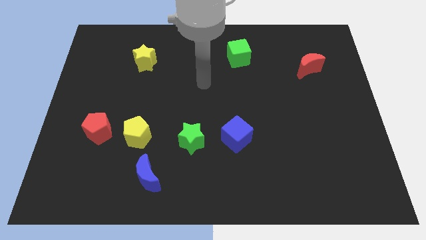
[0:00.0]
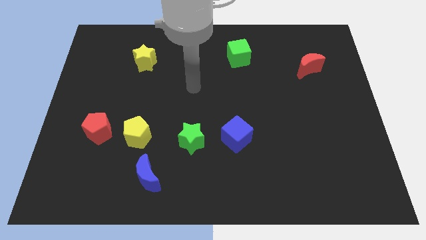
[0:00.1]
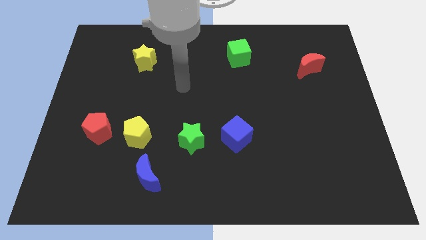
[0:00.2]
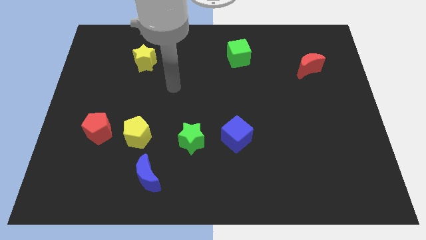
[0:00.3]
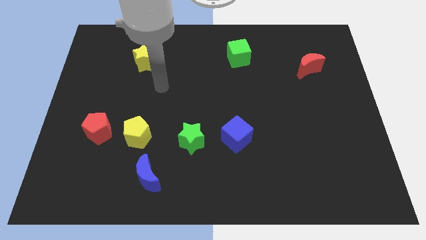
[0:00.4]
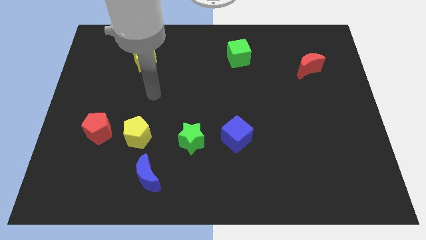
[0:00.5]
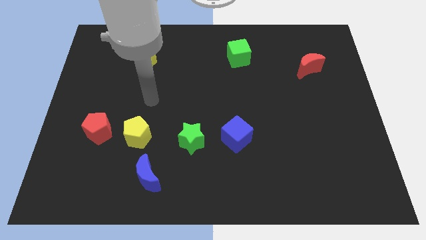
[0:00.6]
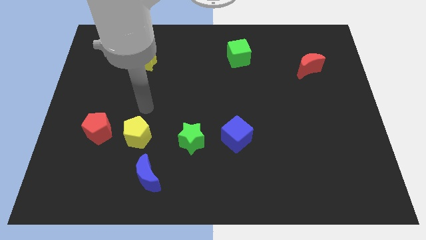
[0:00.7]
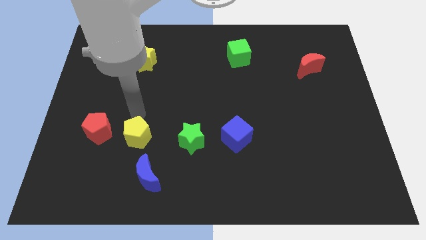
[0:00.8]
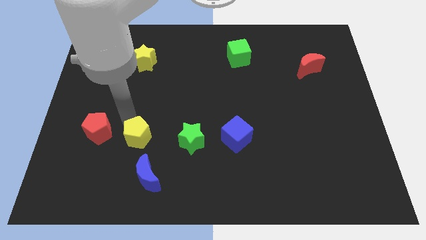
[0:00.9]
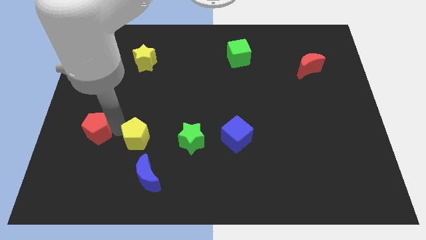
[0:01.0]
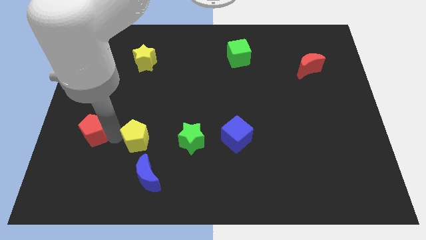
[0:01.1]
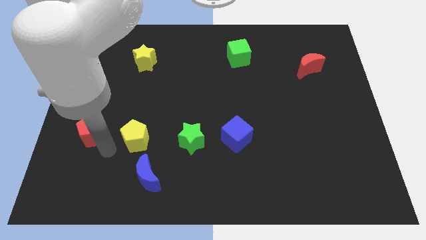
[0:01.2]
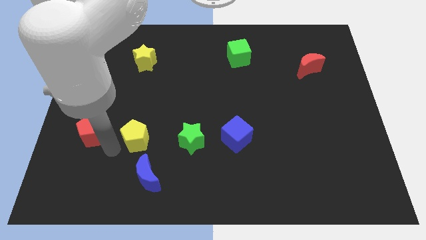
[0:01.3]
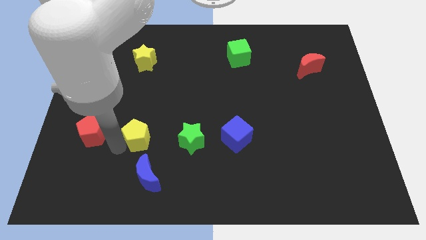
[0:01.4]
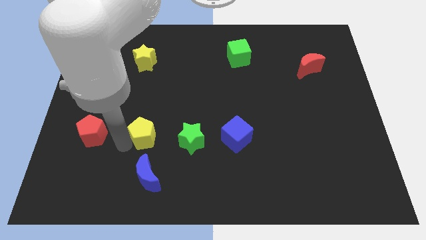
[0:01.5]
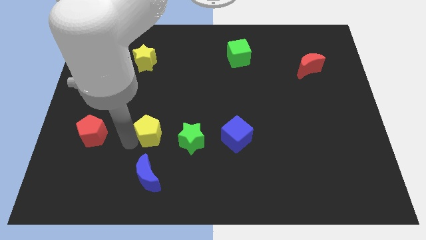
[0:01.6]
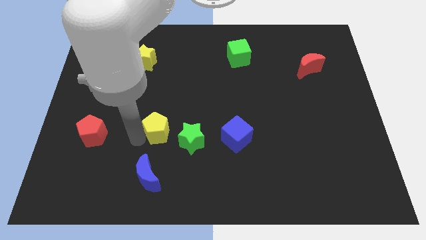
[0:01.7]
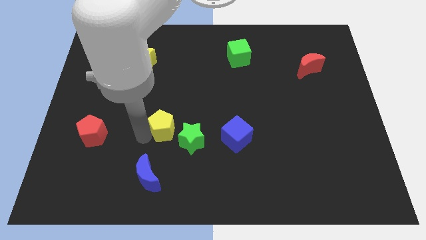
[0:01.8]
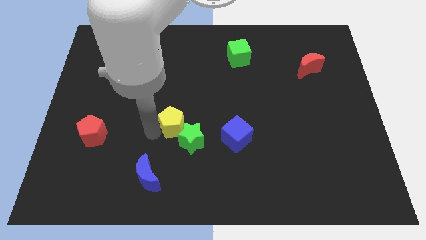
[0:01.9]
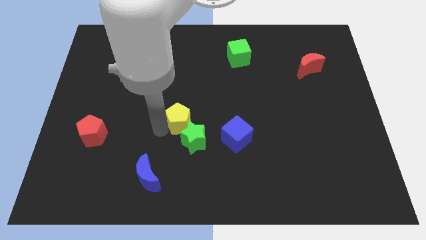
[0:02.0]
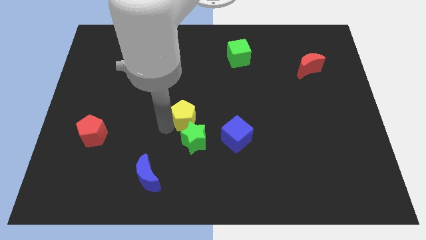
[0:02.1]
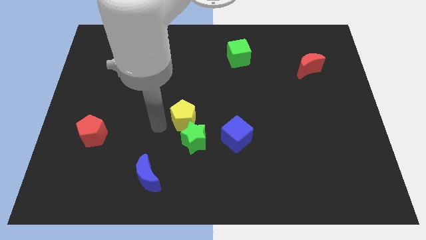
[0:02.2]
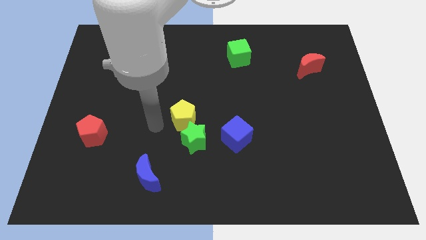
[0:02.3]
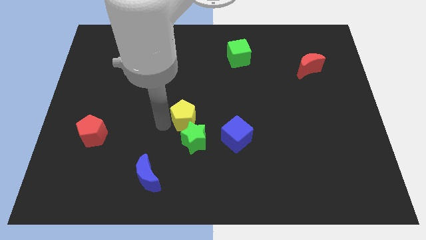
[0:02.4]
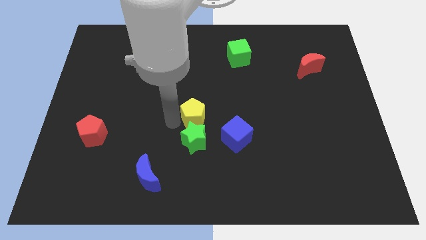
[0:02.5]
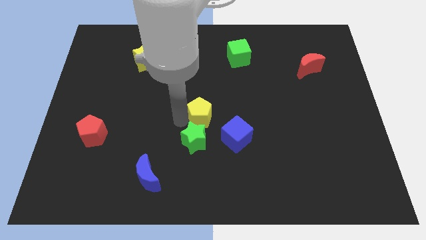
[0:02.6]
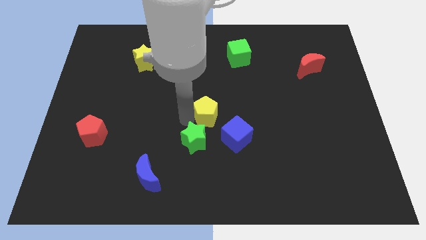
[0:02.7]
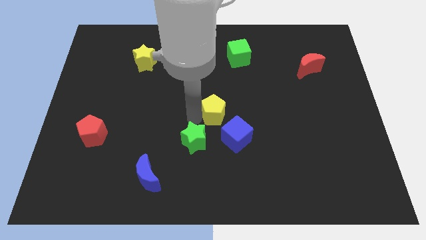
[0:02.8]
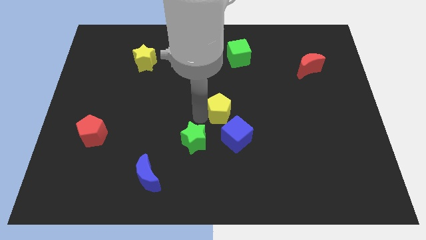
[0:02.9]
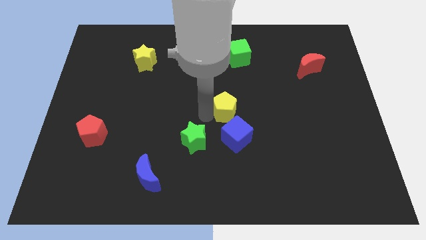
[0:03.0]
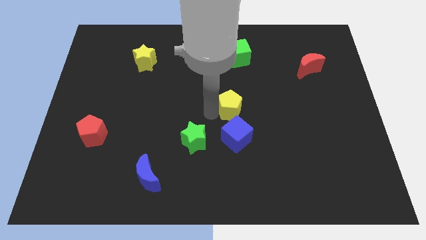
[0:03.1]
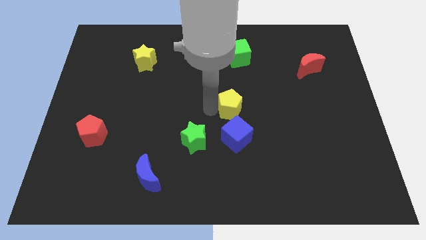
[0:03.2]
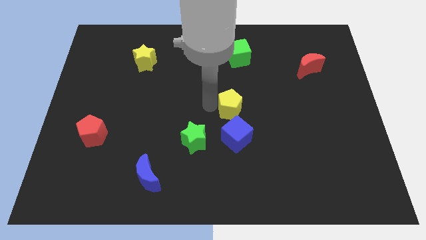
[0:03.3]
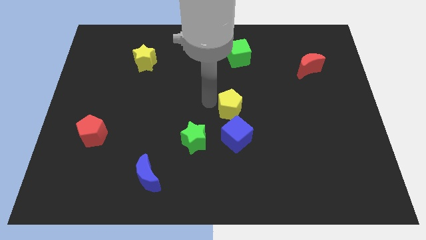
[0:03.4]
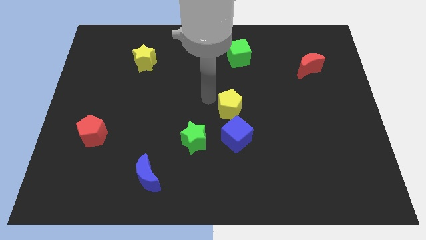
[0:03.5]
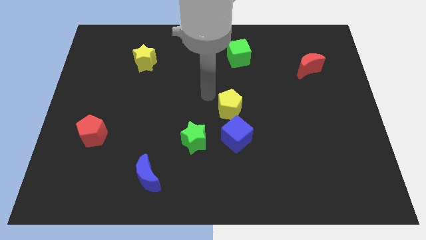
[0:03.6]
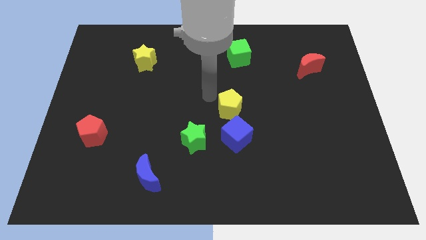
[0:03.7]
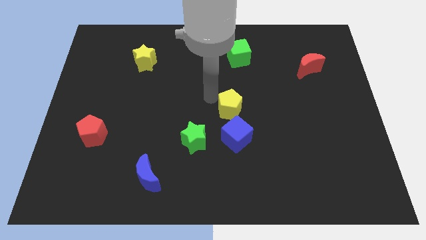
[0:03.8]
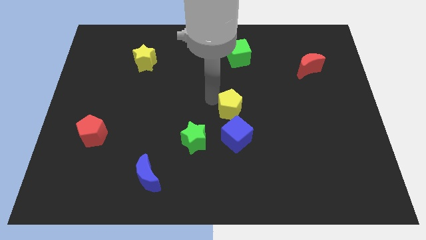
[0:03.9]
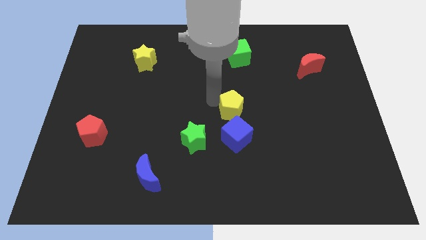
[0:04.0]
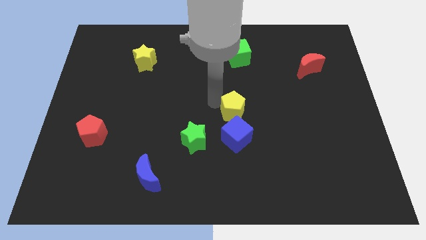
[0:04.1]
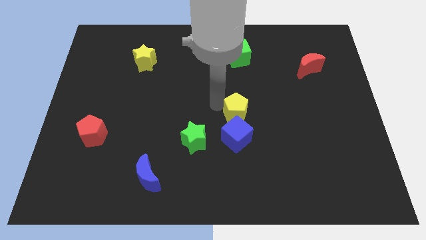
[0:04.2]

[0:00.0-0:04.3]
slide the yellow pentagon to the right

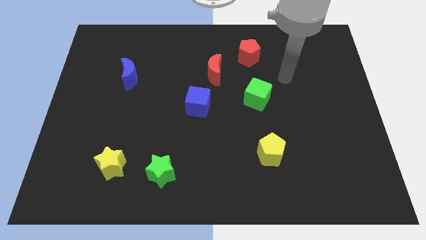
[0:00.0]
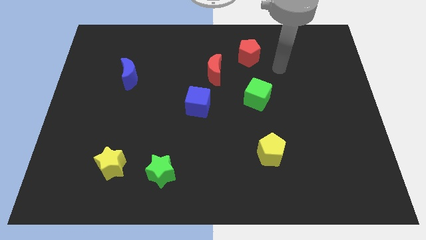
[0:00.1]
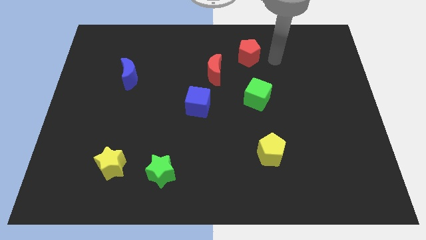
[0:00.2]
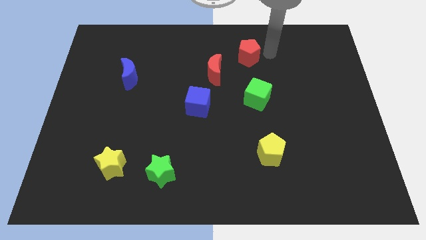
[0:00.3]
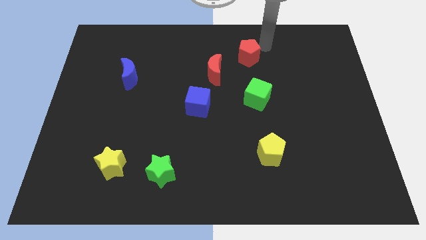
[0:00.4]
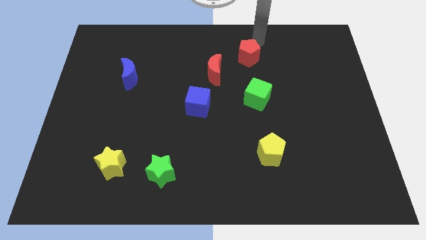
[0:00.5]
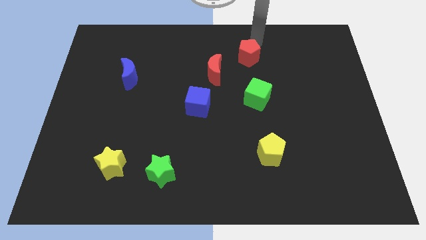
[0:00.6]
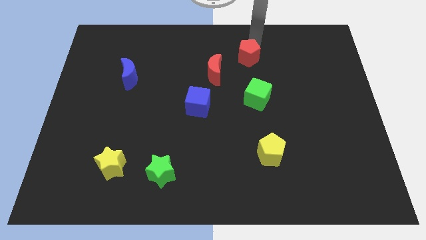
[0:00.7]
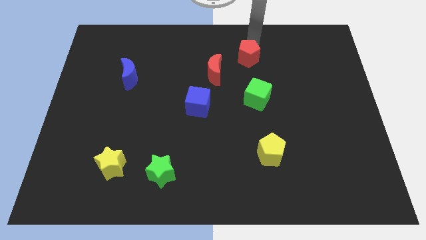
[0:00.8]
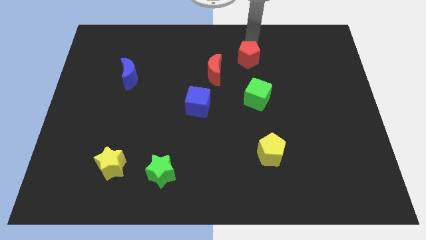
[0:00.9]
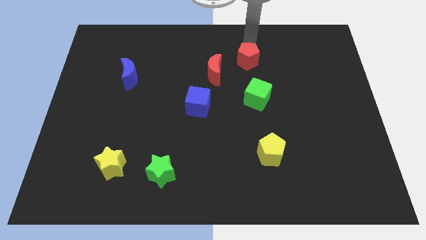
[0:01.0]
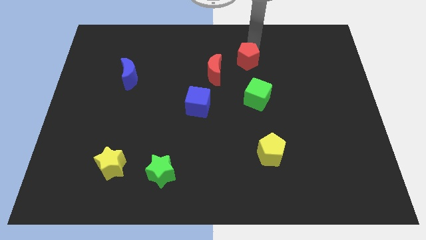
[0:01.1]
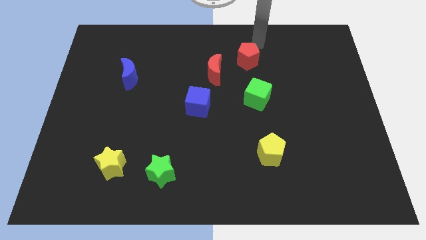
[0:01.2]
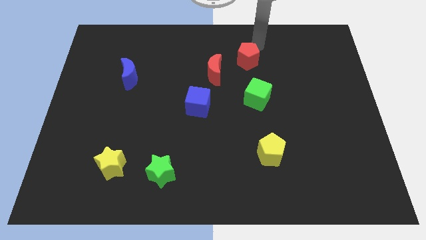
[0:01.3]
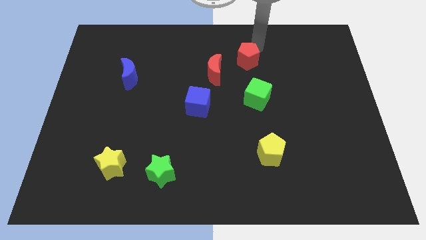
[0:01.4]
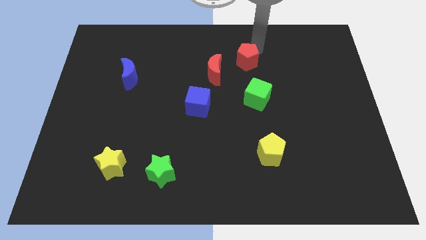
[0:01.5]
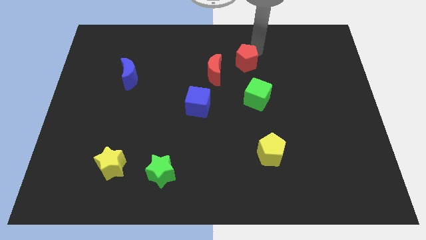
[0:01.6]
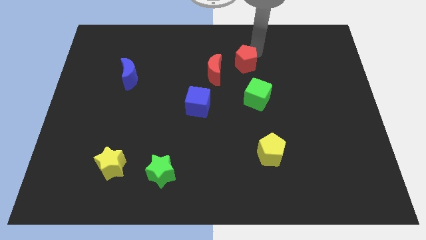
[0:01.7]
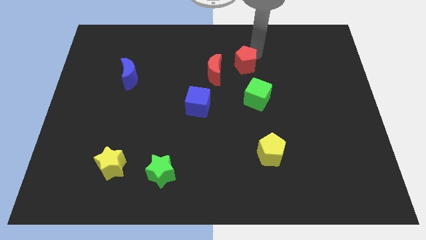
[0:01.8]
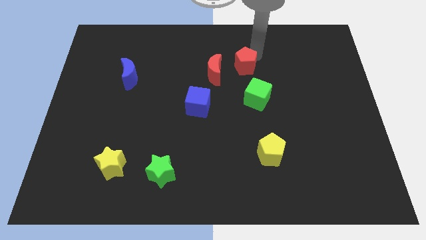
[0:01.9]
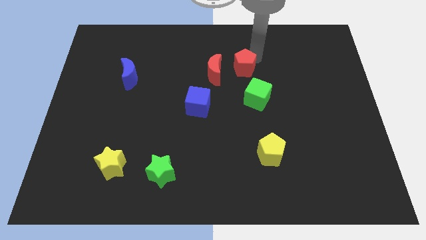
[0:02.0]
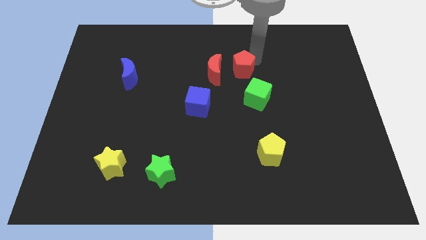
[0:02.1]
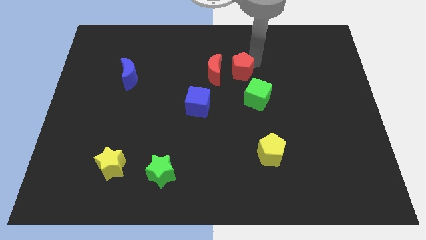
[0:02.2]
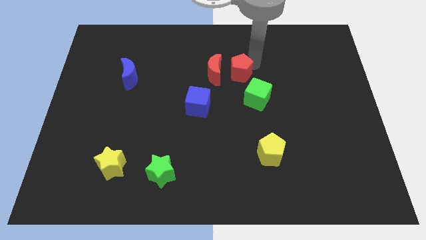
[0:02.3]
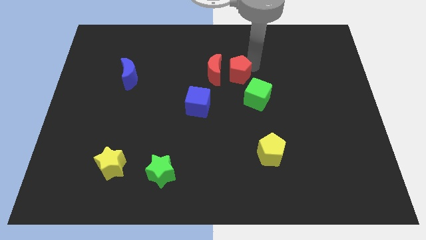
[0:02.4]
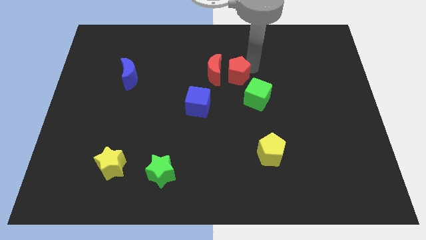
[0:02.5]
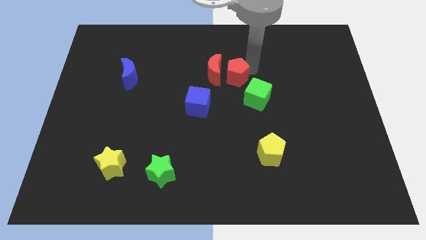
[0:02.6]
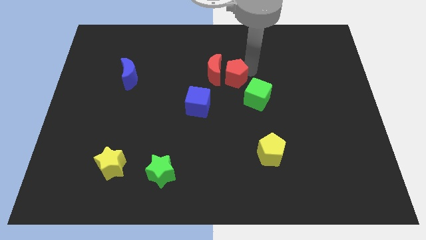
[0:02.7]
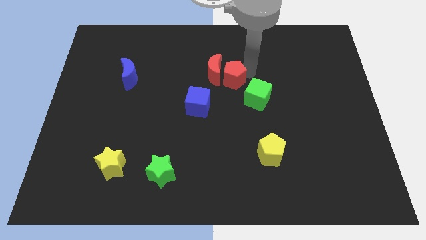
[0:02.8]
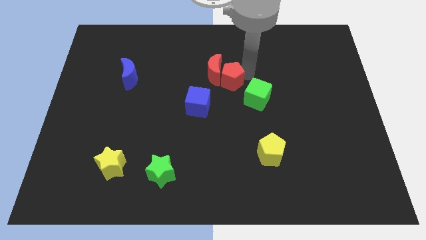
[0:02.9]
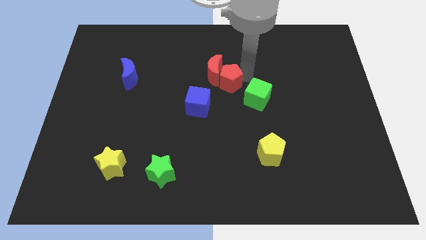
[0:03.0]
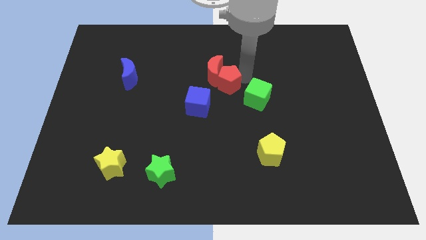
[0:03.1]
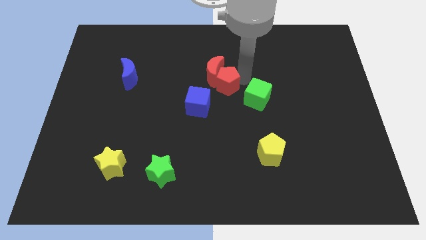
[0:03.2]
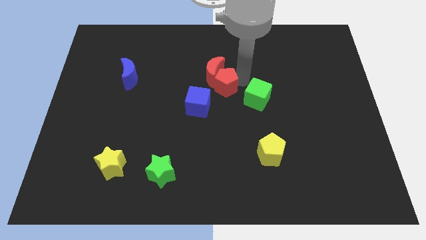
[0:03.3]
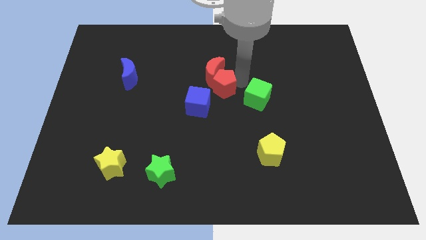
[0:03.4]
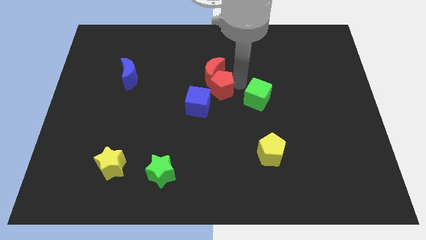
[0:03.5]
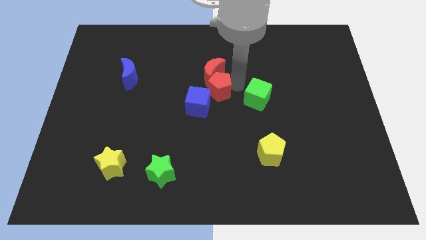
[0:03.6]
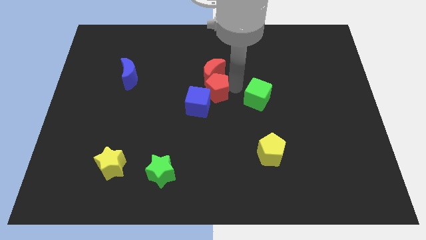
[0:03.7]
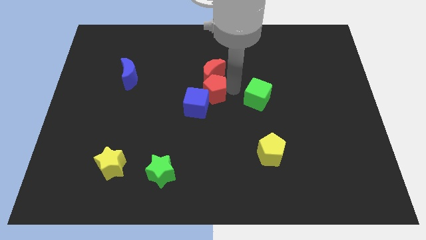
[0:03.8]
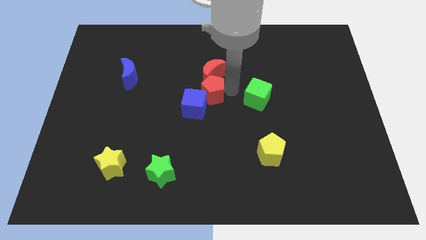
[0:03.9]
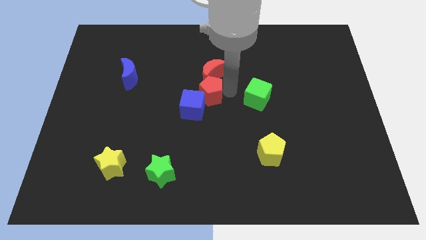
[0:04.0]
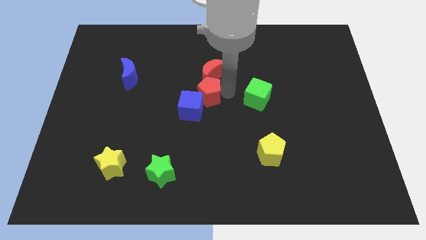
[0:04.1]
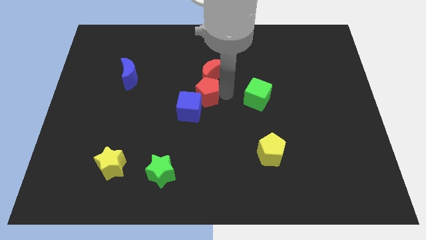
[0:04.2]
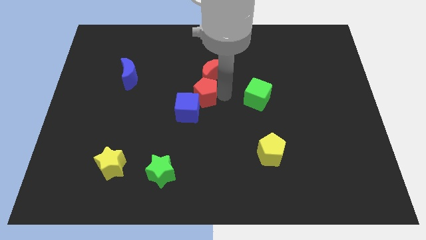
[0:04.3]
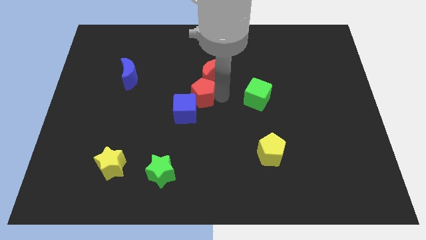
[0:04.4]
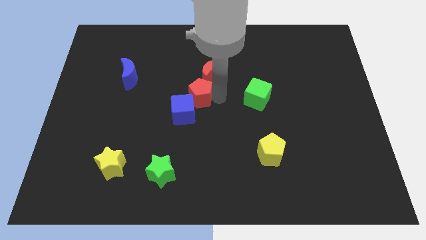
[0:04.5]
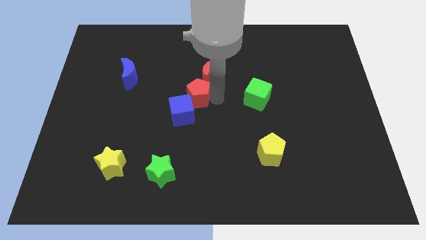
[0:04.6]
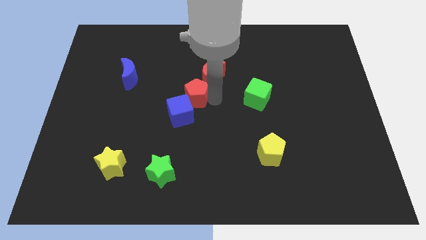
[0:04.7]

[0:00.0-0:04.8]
push the red pentagon diagonally down and to the left
